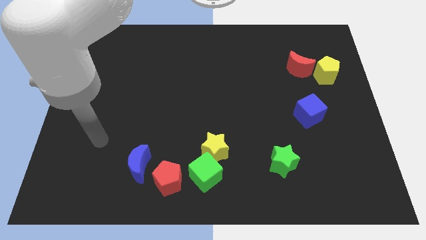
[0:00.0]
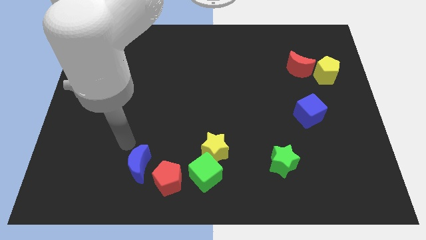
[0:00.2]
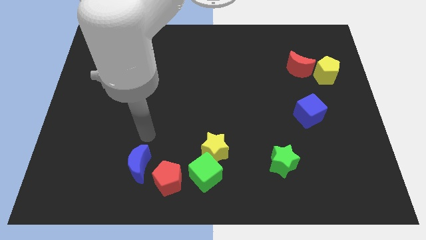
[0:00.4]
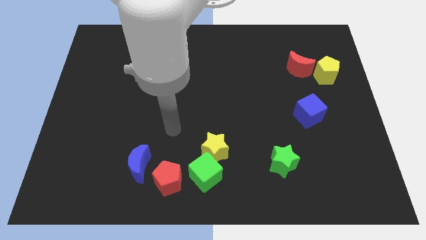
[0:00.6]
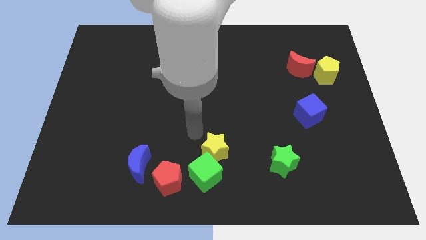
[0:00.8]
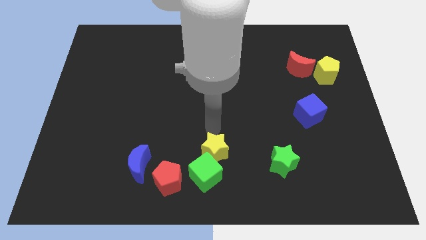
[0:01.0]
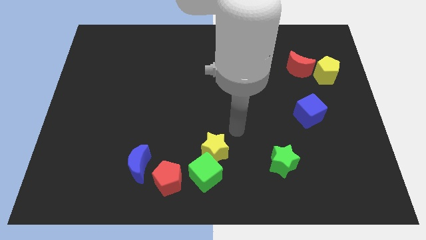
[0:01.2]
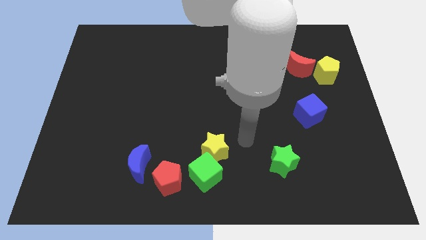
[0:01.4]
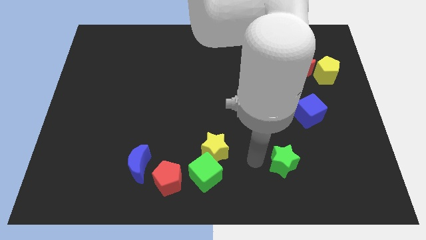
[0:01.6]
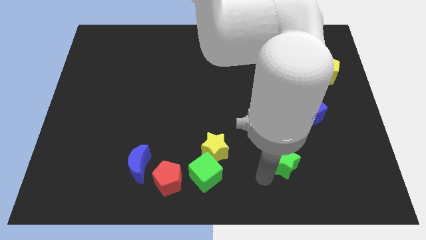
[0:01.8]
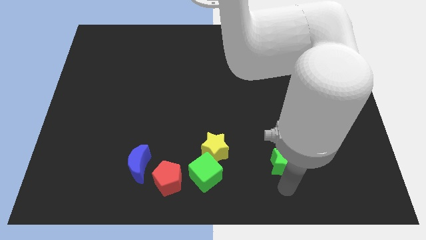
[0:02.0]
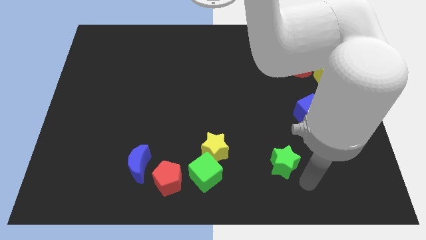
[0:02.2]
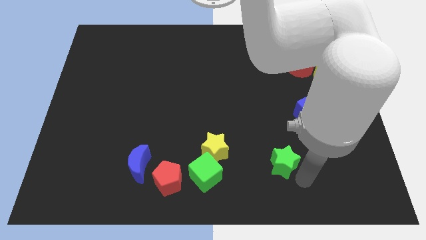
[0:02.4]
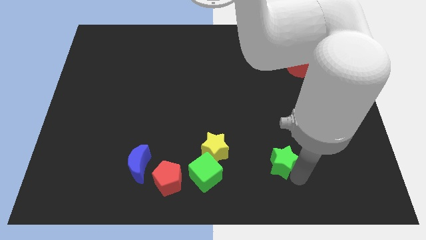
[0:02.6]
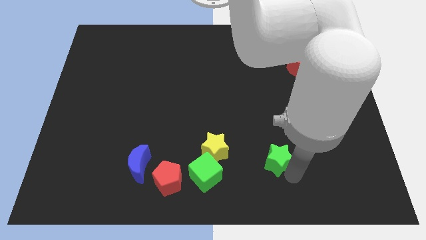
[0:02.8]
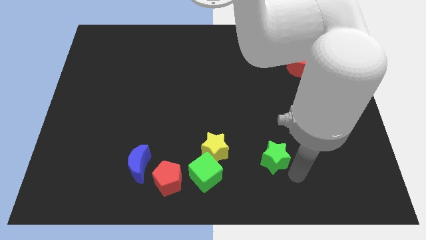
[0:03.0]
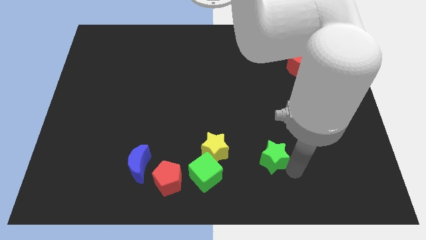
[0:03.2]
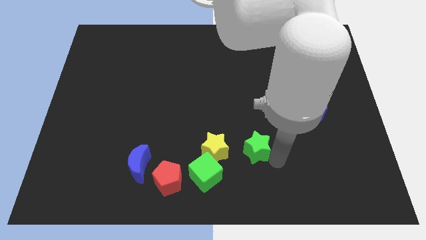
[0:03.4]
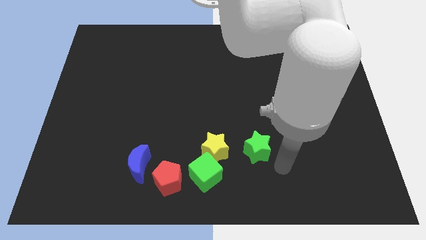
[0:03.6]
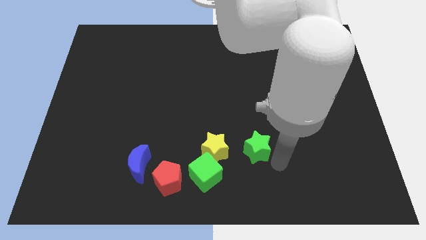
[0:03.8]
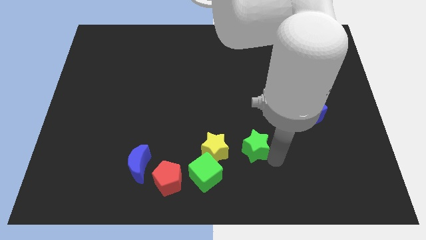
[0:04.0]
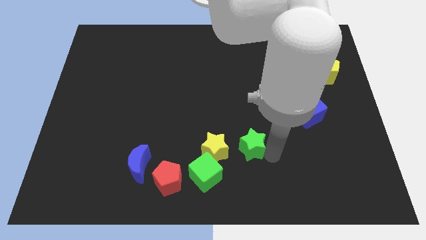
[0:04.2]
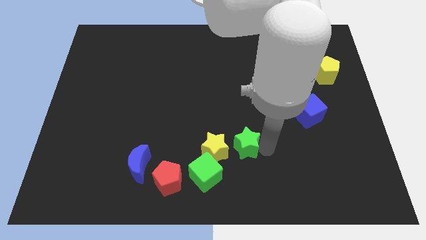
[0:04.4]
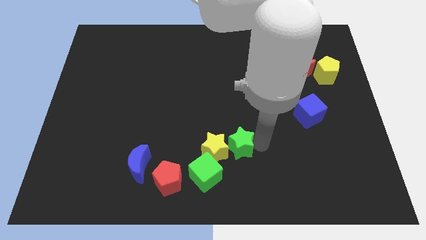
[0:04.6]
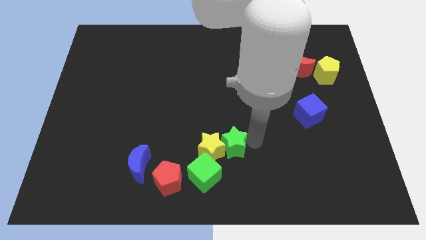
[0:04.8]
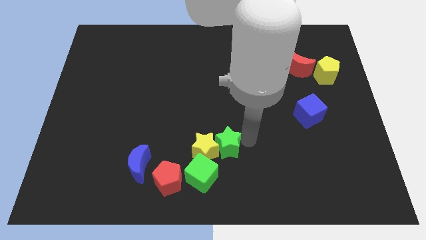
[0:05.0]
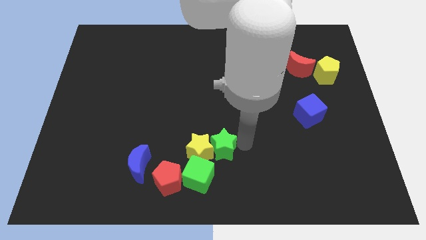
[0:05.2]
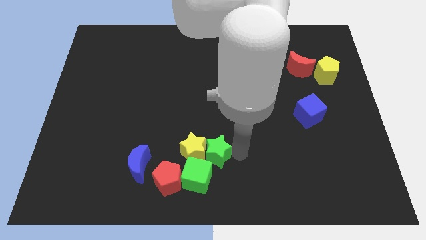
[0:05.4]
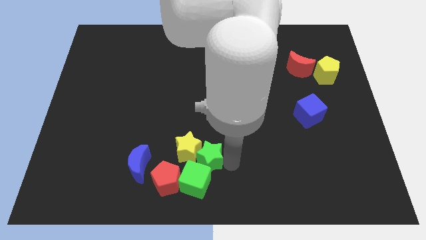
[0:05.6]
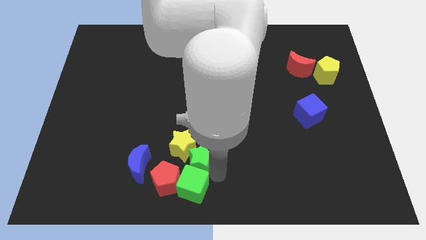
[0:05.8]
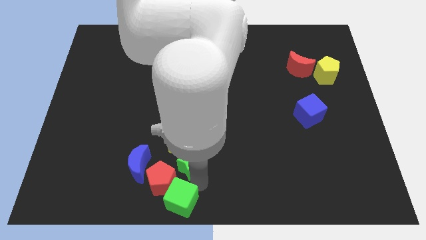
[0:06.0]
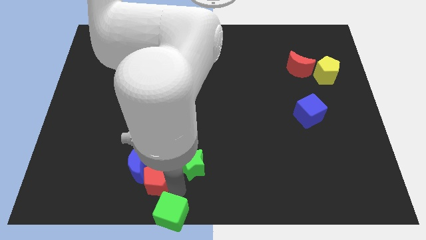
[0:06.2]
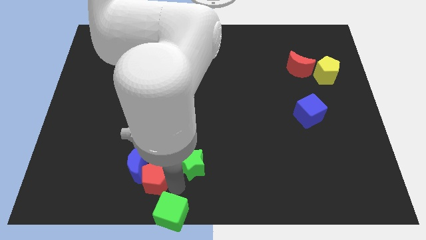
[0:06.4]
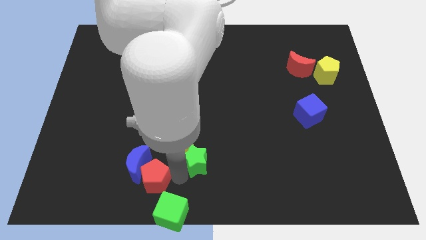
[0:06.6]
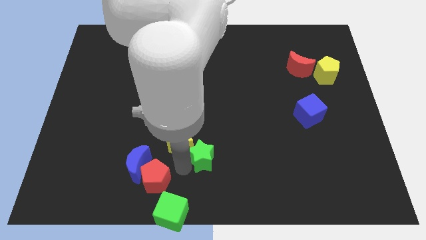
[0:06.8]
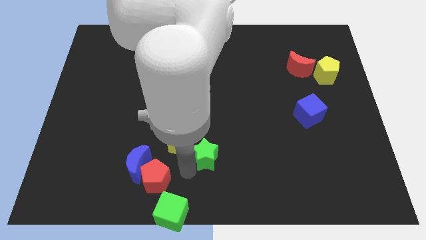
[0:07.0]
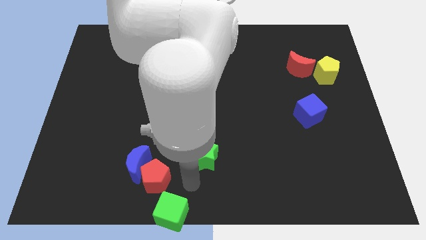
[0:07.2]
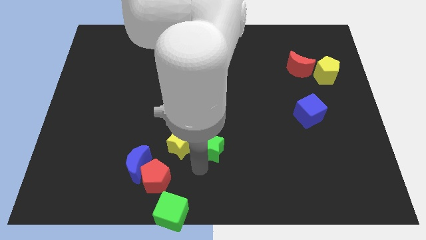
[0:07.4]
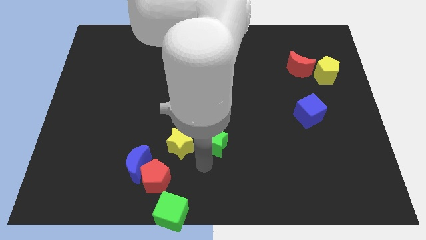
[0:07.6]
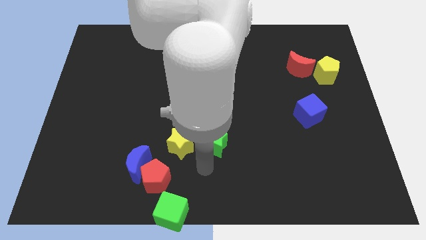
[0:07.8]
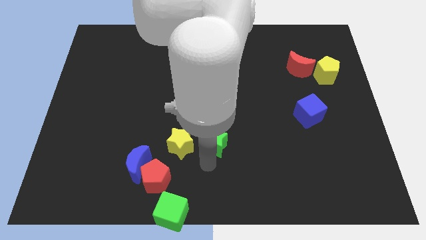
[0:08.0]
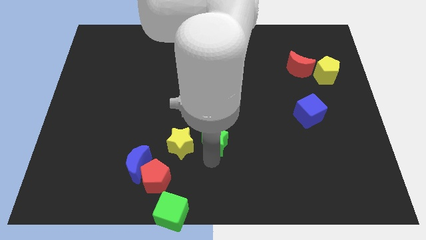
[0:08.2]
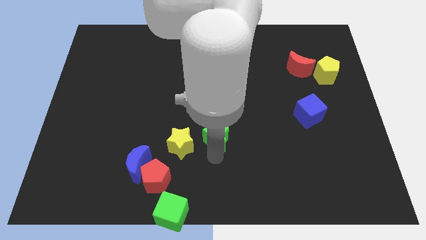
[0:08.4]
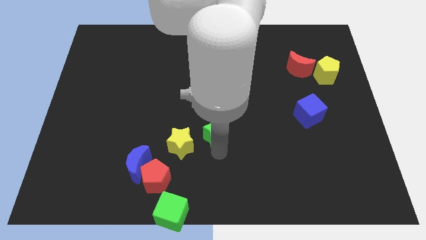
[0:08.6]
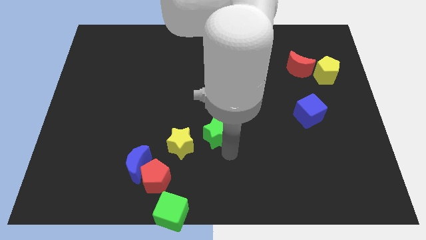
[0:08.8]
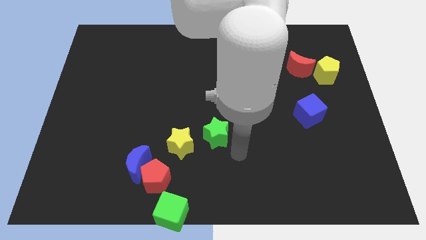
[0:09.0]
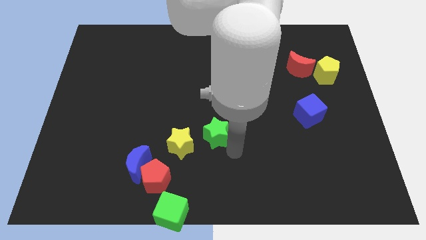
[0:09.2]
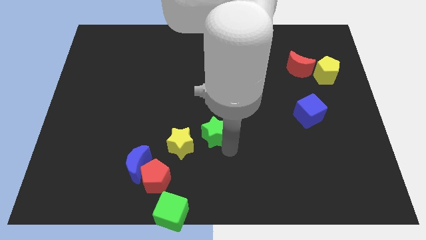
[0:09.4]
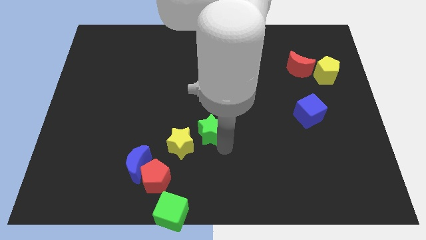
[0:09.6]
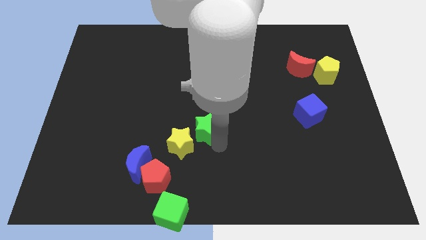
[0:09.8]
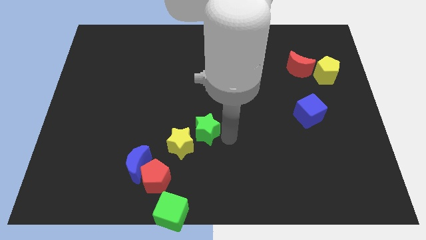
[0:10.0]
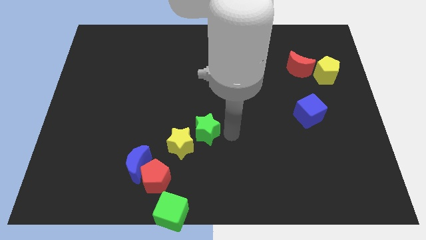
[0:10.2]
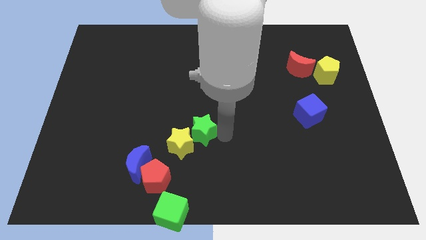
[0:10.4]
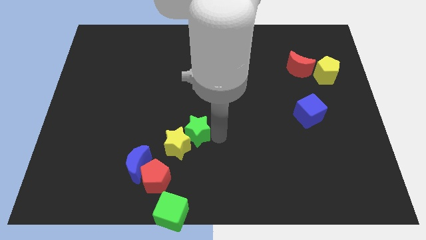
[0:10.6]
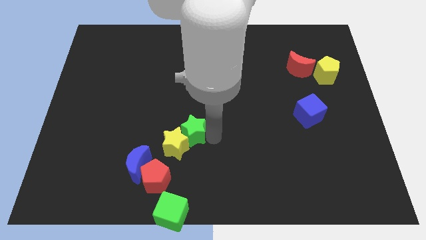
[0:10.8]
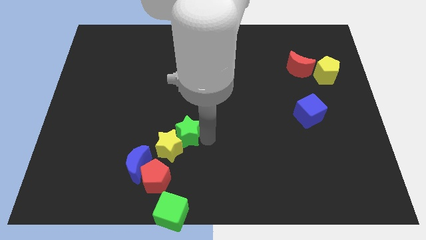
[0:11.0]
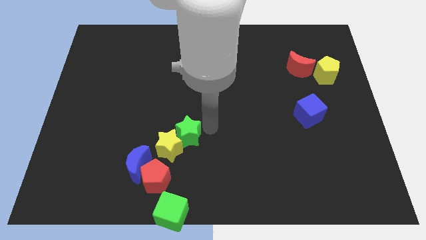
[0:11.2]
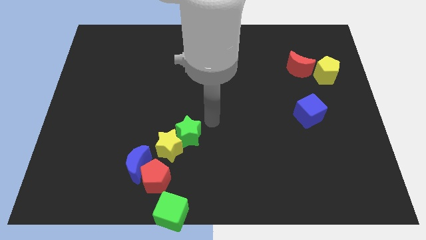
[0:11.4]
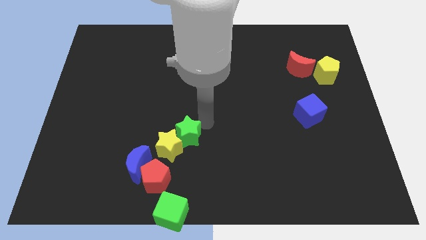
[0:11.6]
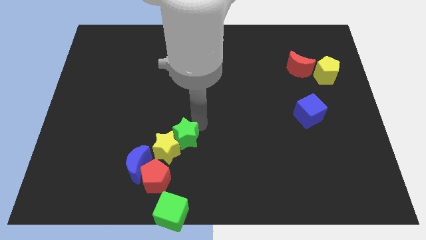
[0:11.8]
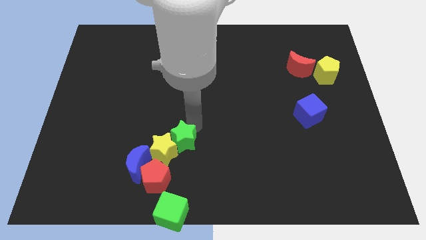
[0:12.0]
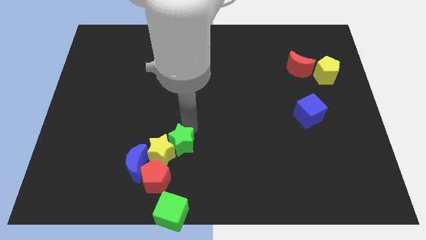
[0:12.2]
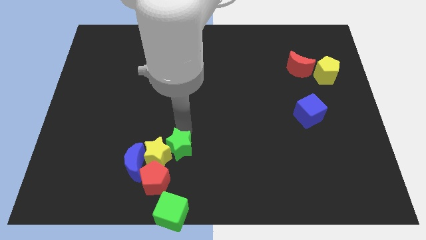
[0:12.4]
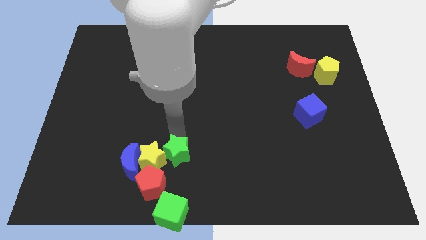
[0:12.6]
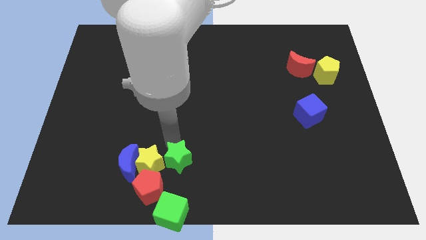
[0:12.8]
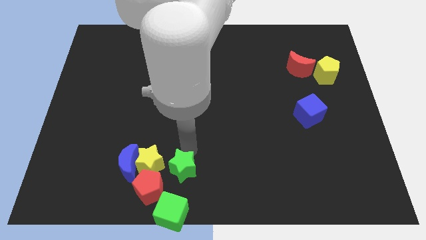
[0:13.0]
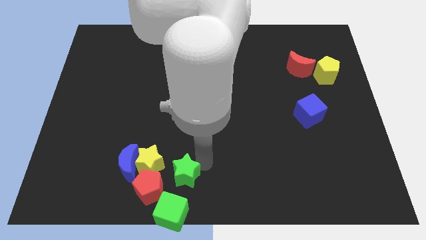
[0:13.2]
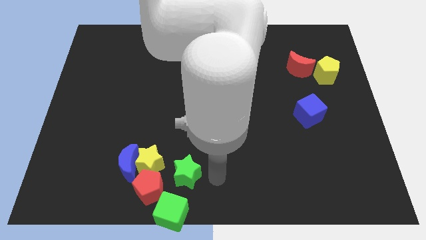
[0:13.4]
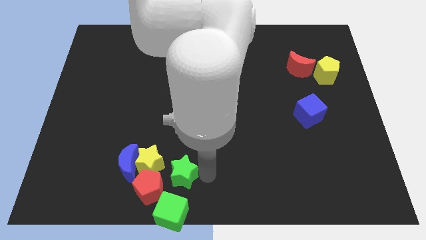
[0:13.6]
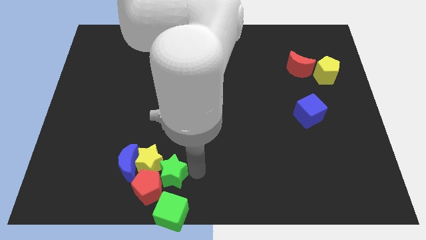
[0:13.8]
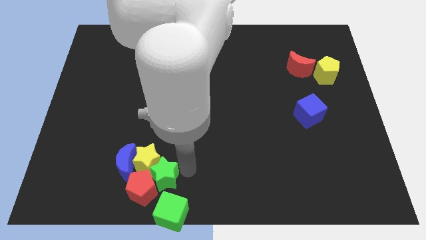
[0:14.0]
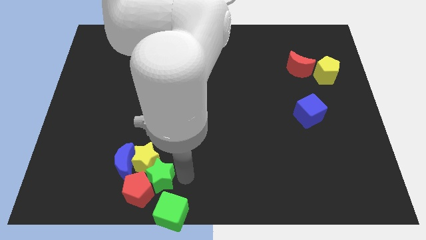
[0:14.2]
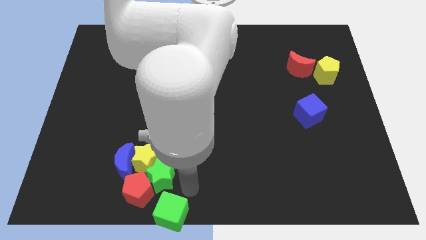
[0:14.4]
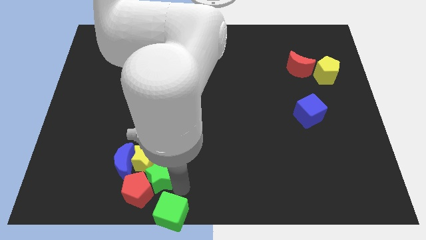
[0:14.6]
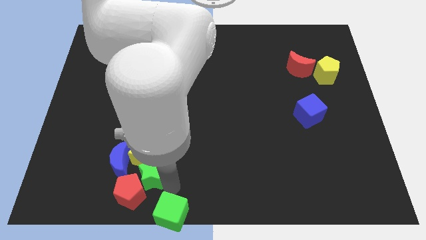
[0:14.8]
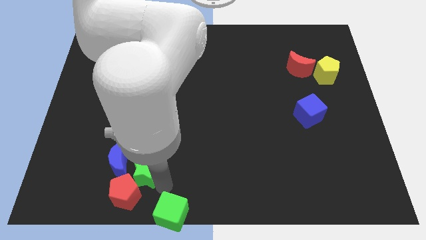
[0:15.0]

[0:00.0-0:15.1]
put the green star close to the blue moon
